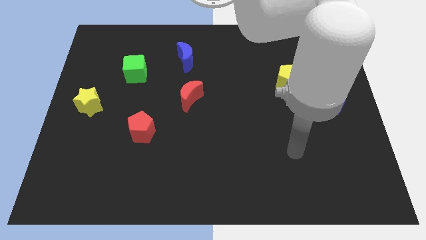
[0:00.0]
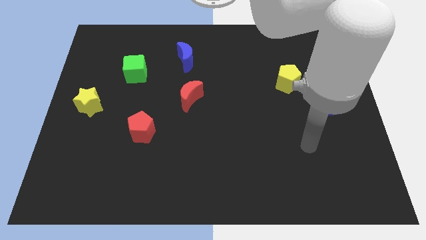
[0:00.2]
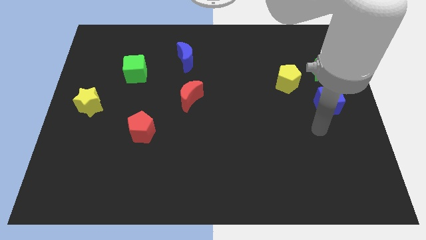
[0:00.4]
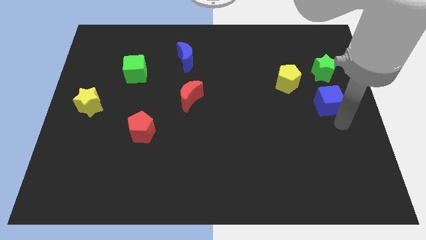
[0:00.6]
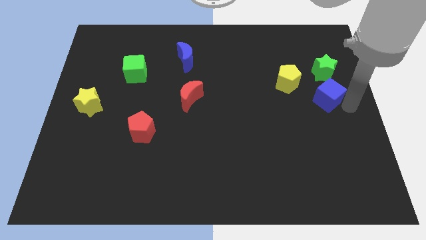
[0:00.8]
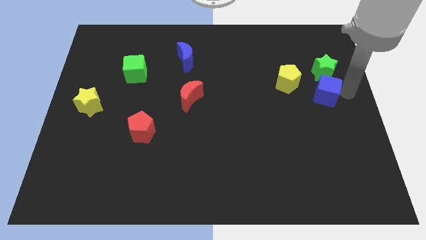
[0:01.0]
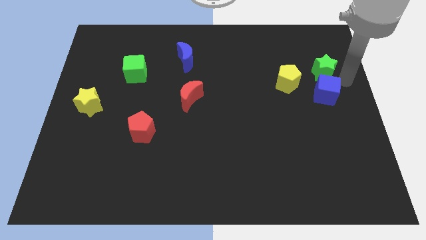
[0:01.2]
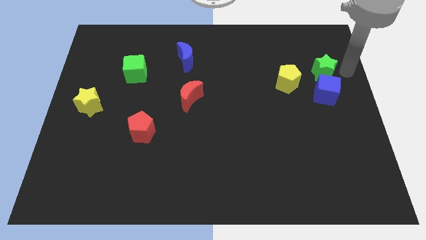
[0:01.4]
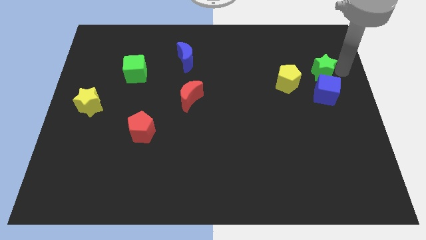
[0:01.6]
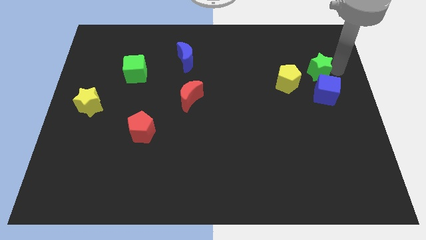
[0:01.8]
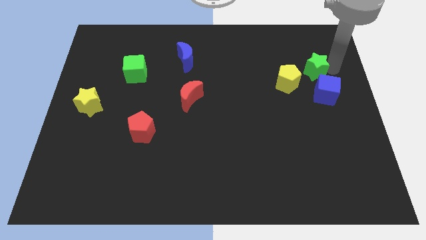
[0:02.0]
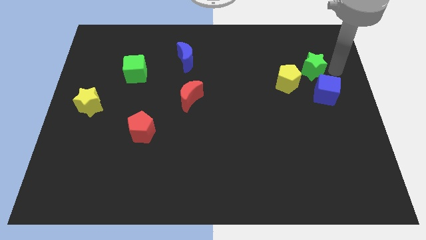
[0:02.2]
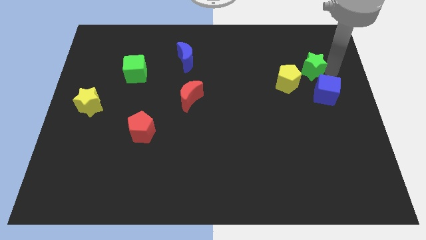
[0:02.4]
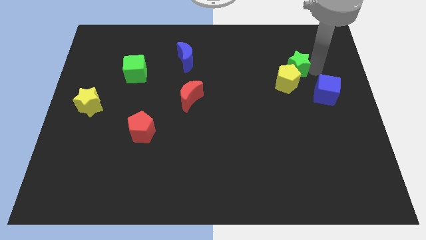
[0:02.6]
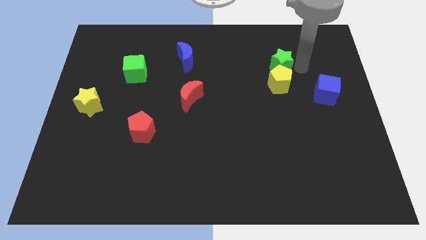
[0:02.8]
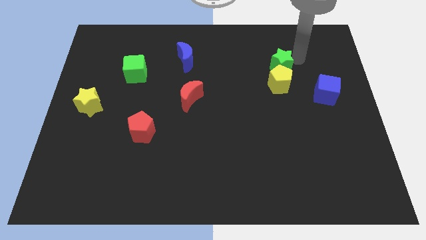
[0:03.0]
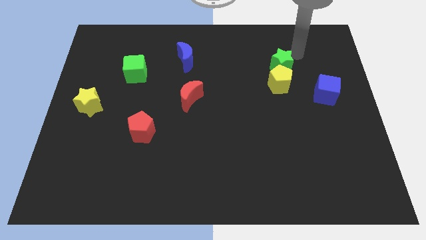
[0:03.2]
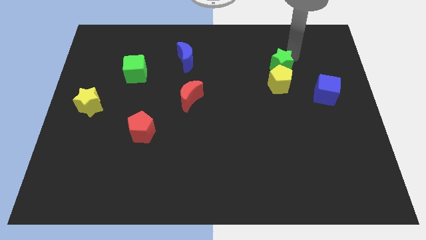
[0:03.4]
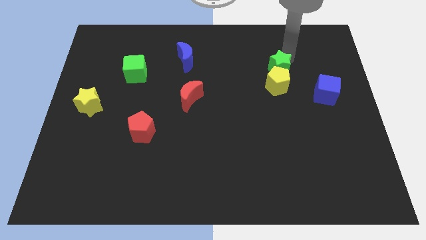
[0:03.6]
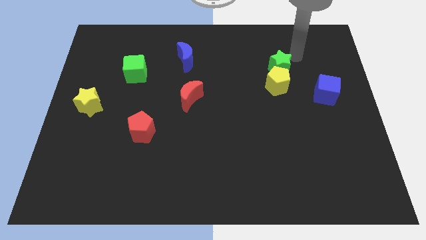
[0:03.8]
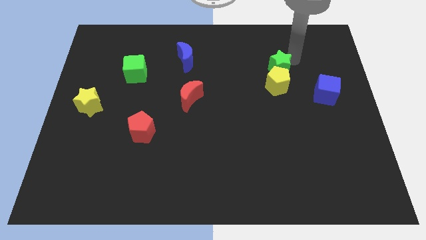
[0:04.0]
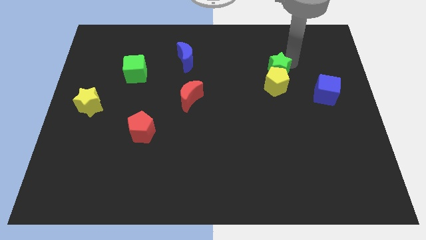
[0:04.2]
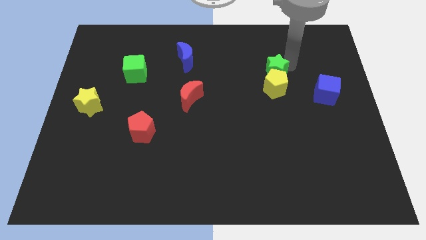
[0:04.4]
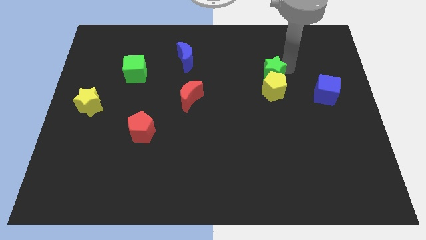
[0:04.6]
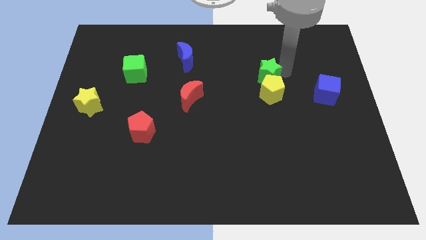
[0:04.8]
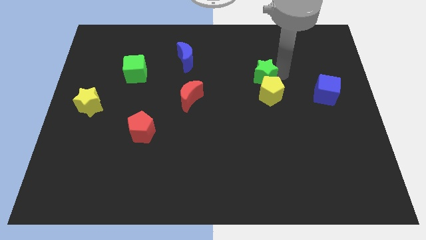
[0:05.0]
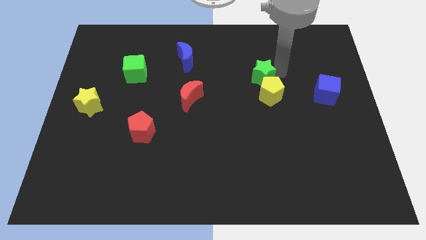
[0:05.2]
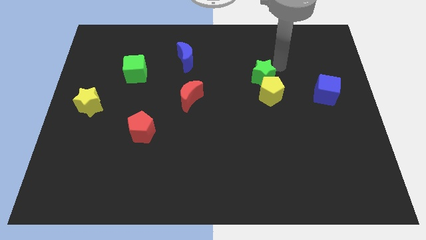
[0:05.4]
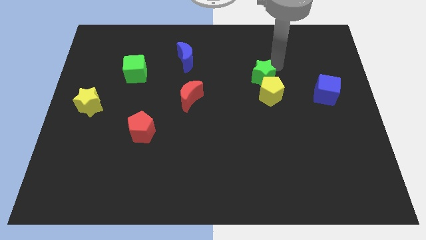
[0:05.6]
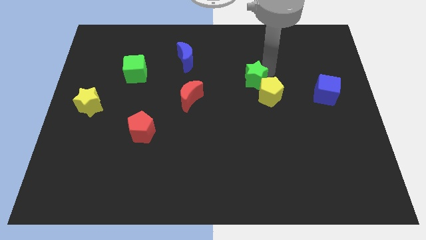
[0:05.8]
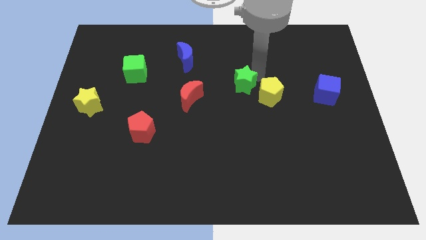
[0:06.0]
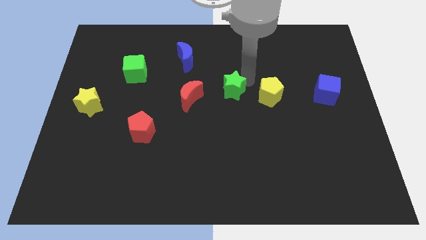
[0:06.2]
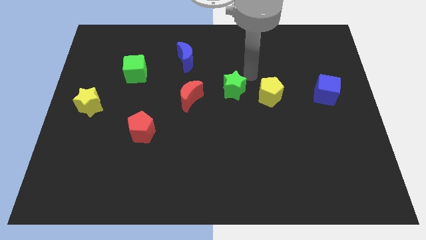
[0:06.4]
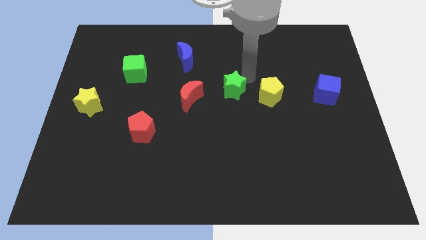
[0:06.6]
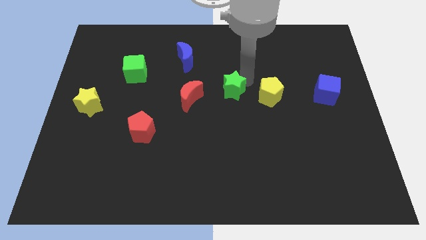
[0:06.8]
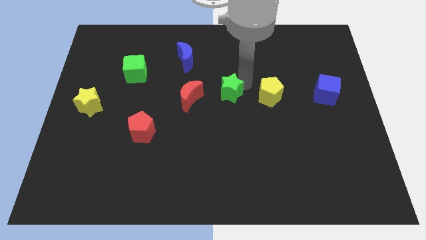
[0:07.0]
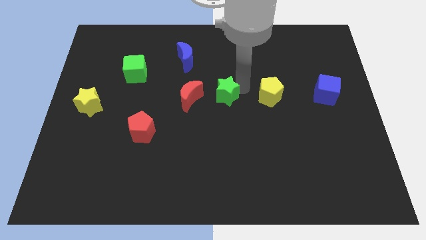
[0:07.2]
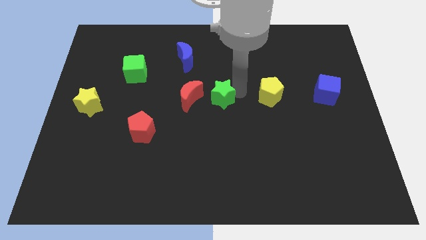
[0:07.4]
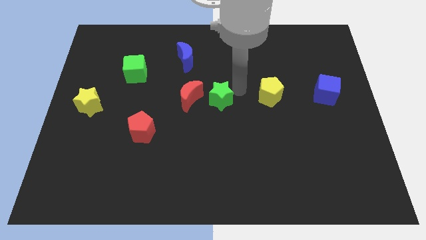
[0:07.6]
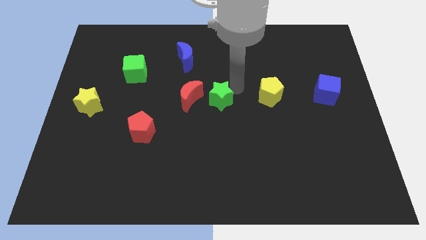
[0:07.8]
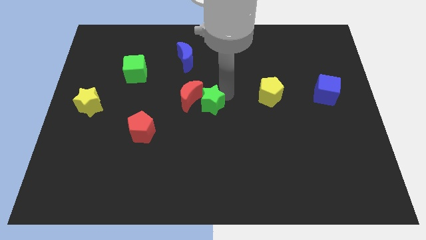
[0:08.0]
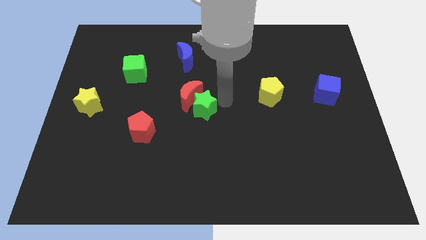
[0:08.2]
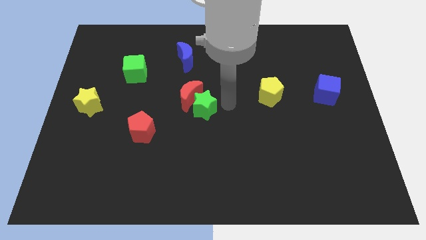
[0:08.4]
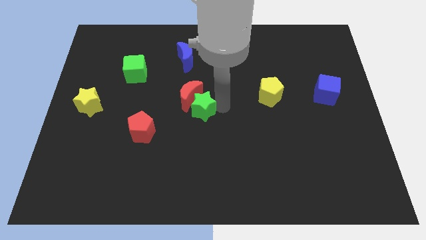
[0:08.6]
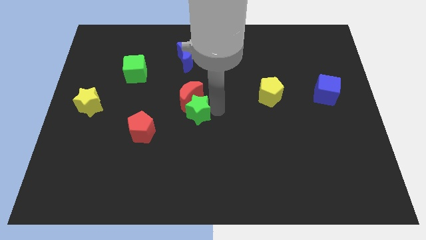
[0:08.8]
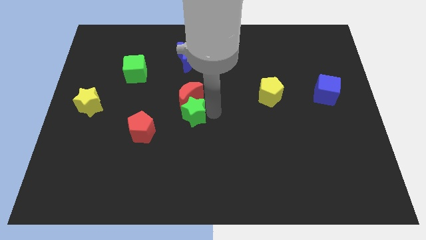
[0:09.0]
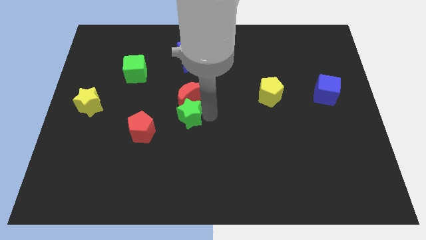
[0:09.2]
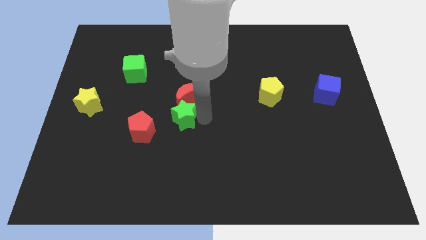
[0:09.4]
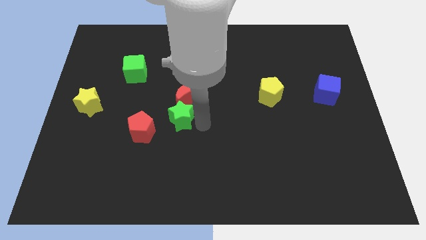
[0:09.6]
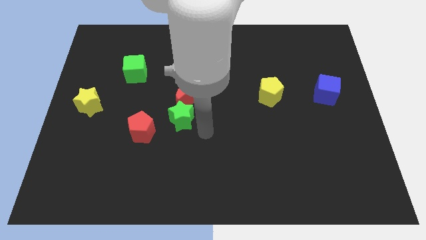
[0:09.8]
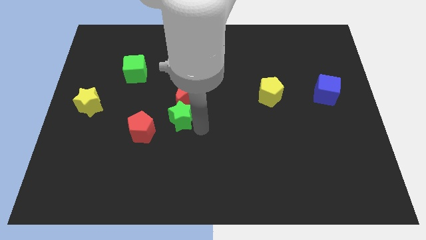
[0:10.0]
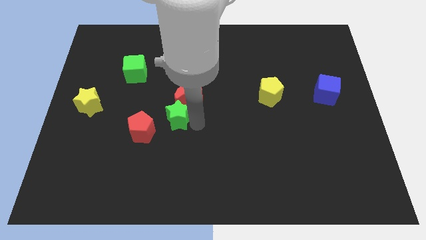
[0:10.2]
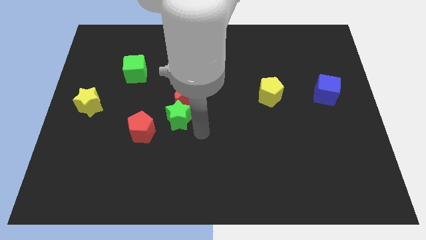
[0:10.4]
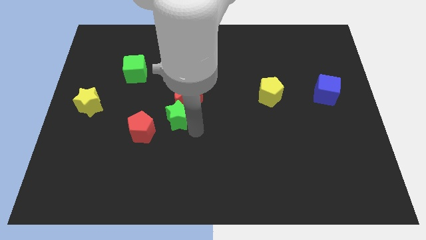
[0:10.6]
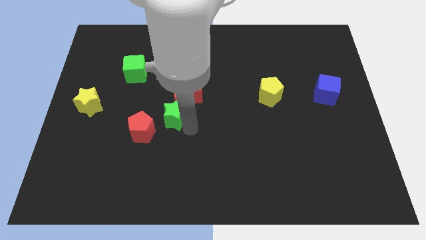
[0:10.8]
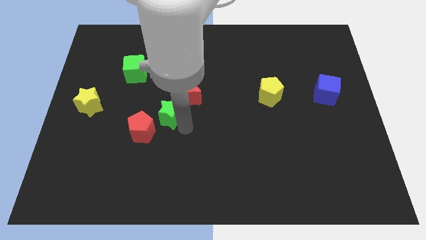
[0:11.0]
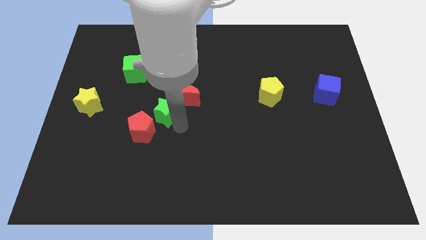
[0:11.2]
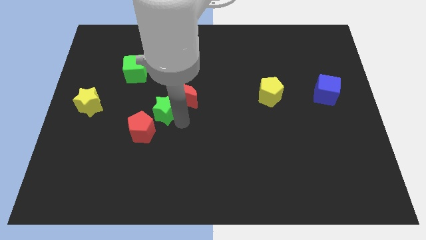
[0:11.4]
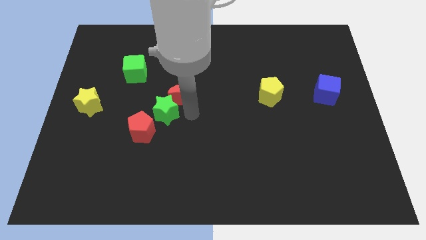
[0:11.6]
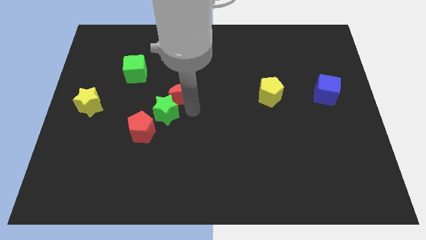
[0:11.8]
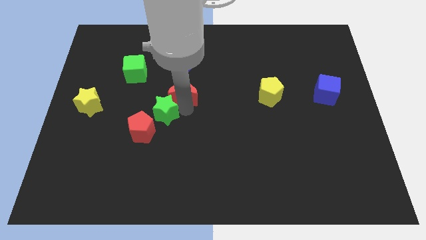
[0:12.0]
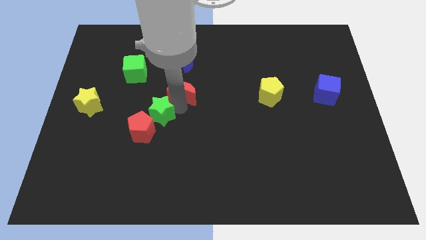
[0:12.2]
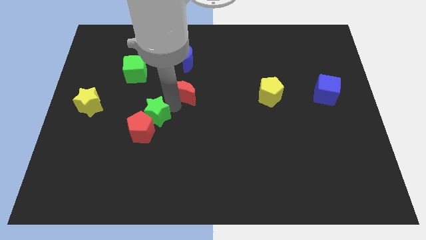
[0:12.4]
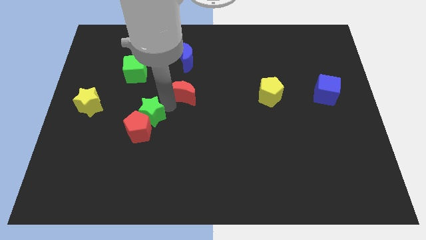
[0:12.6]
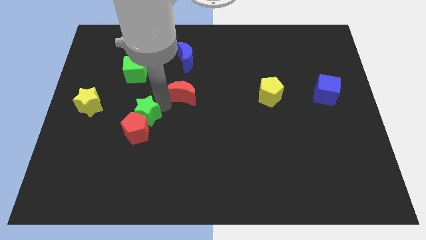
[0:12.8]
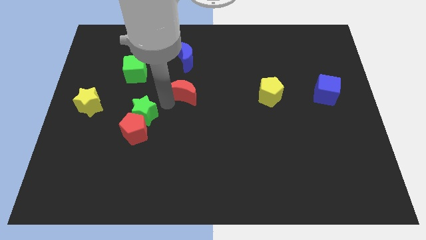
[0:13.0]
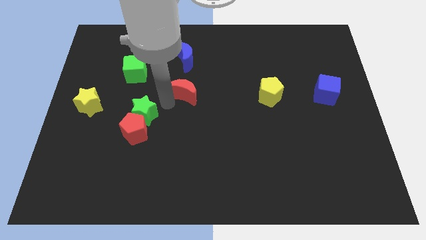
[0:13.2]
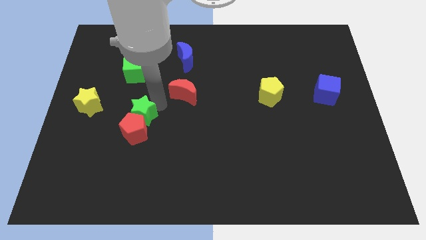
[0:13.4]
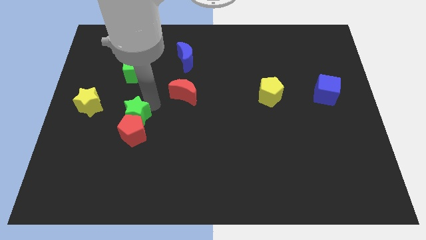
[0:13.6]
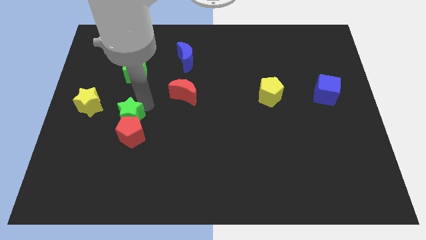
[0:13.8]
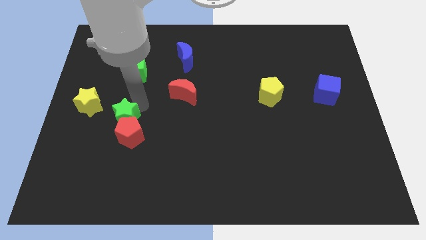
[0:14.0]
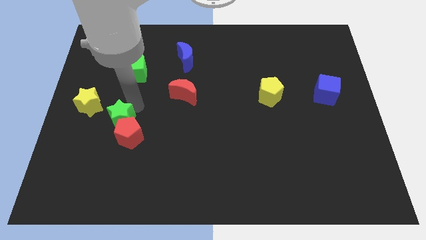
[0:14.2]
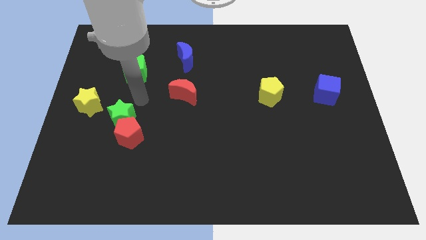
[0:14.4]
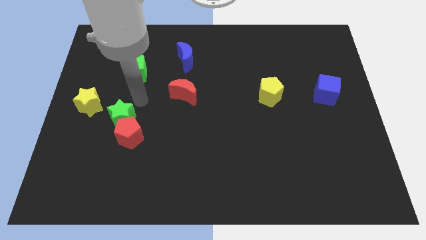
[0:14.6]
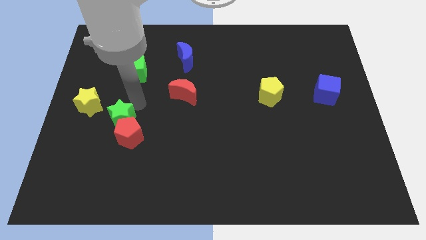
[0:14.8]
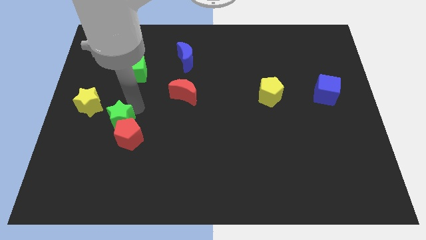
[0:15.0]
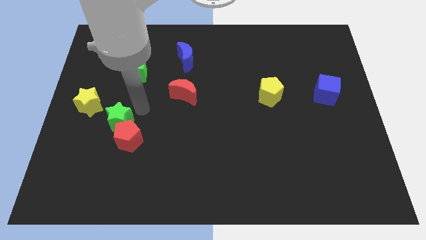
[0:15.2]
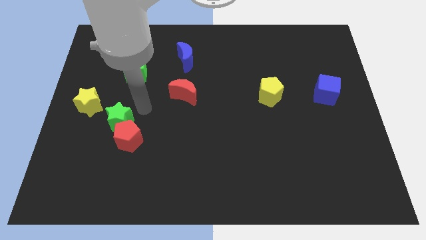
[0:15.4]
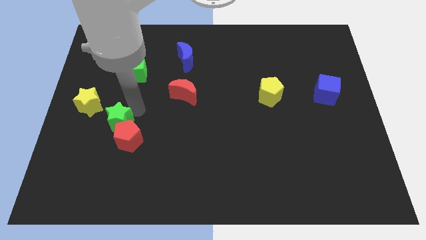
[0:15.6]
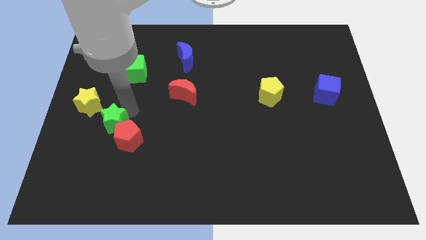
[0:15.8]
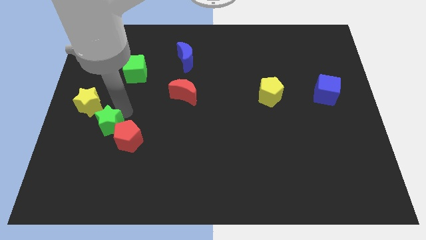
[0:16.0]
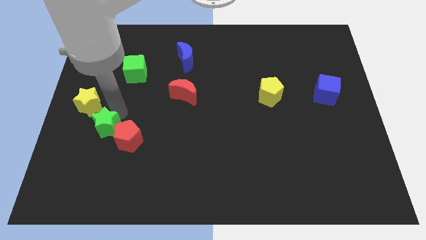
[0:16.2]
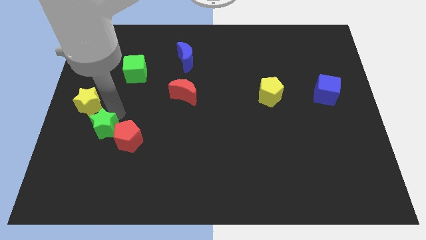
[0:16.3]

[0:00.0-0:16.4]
move the green star to the bottom of the yellow star
